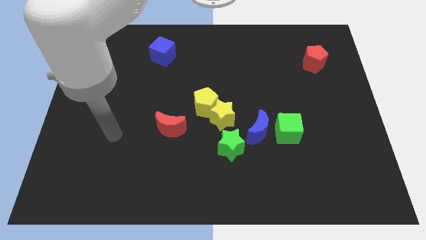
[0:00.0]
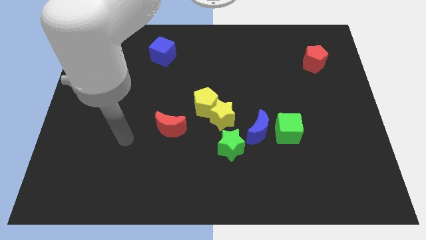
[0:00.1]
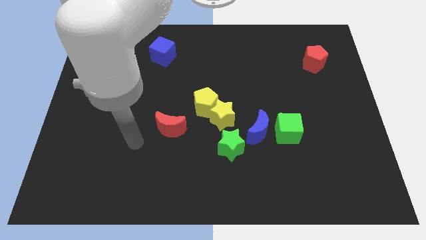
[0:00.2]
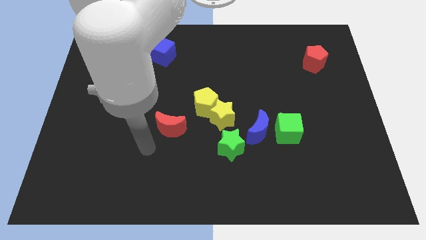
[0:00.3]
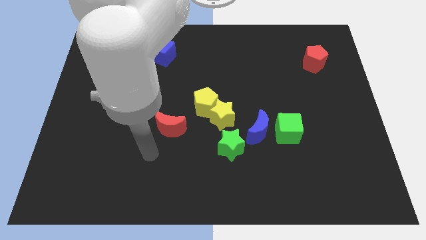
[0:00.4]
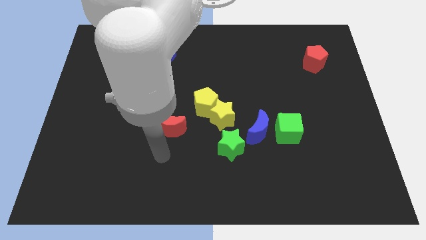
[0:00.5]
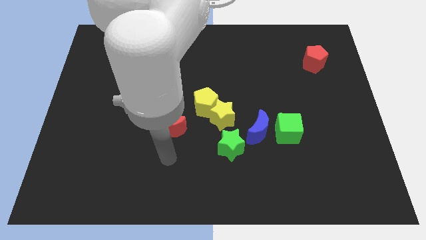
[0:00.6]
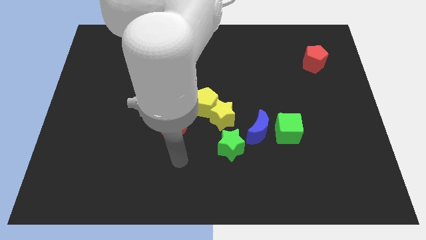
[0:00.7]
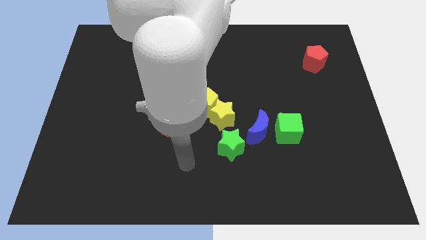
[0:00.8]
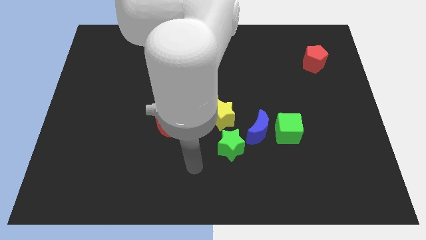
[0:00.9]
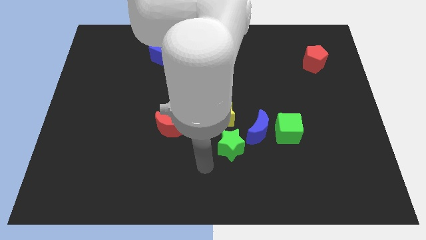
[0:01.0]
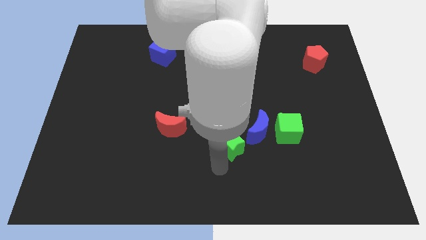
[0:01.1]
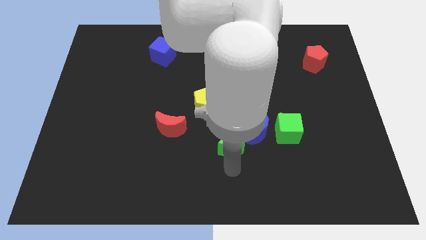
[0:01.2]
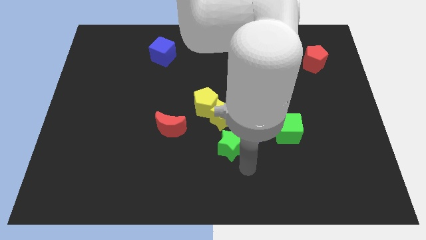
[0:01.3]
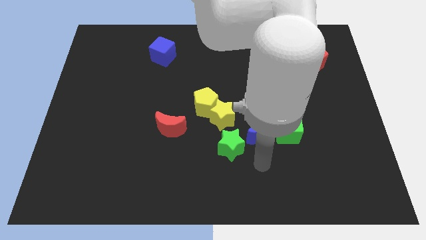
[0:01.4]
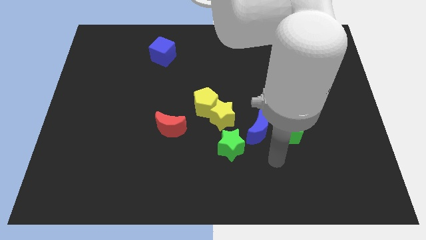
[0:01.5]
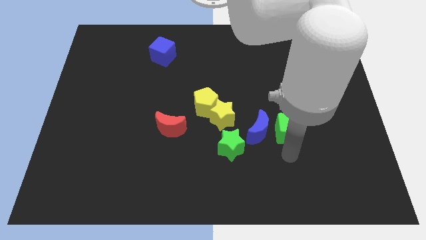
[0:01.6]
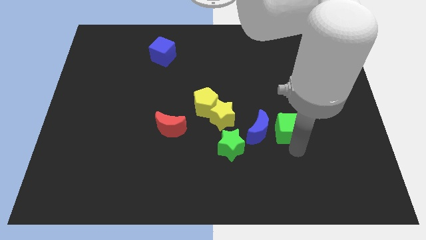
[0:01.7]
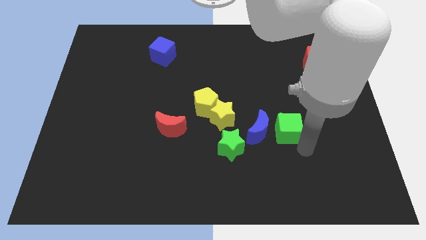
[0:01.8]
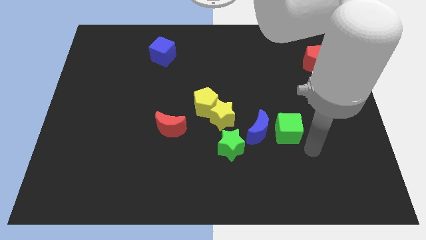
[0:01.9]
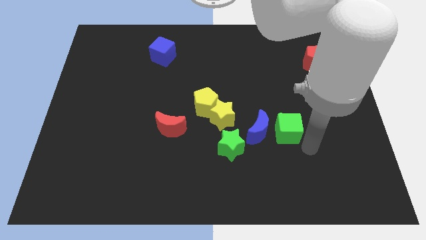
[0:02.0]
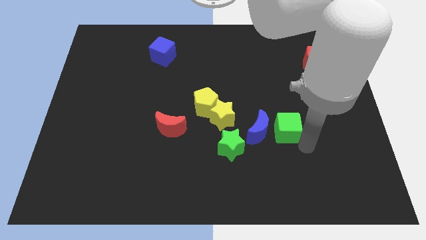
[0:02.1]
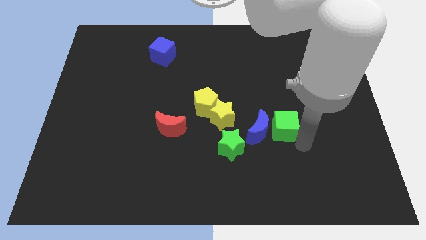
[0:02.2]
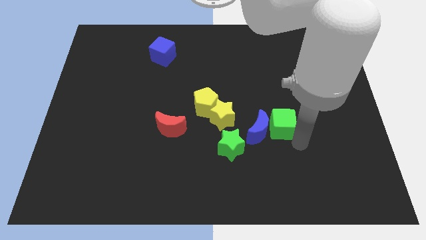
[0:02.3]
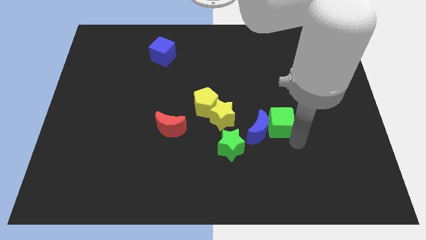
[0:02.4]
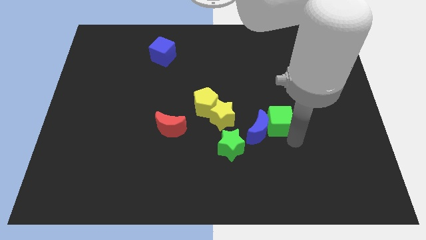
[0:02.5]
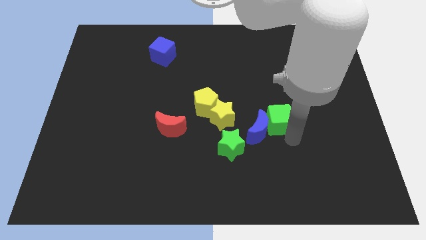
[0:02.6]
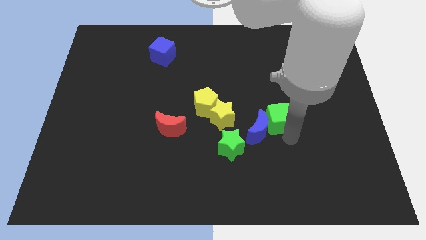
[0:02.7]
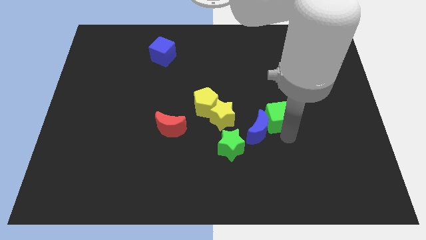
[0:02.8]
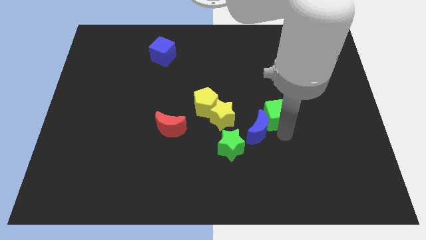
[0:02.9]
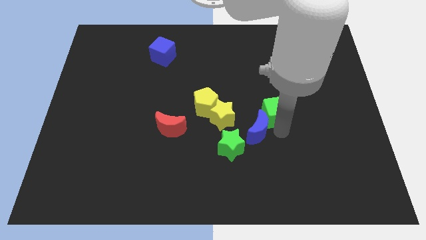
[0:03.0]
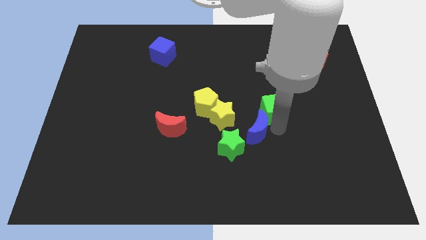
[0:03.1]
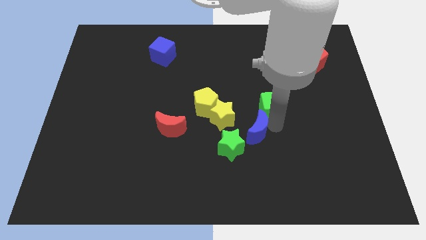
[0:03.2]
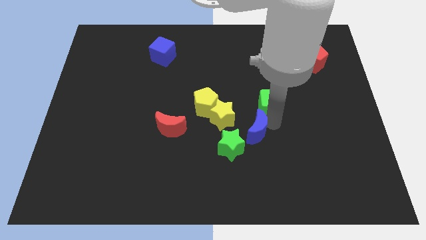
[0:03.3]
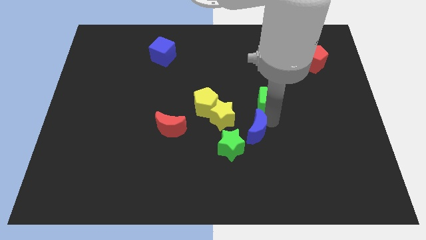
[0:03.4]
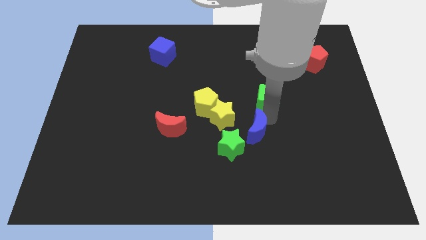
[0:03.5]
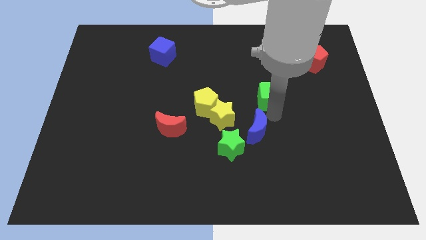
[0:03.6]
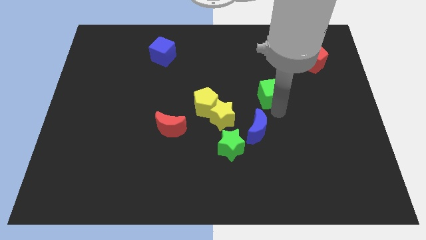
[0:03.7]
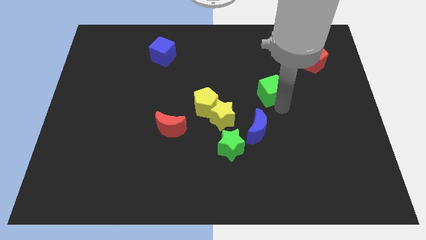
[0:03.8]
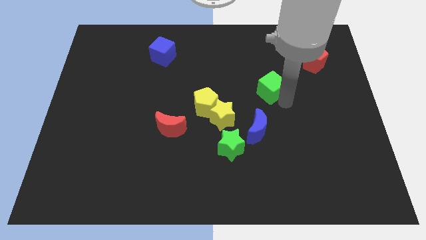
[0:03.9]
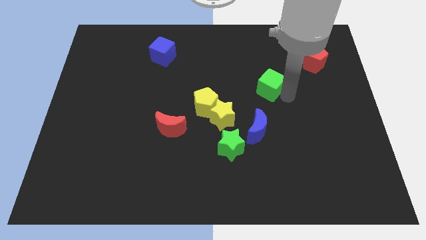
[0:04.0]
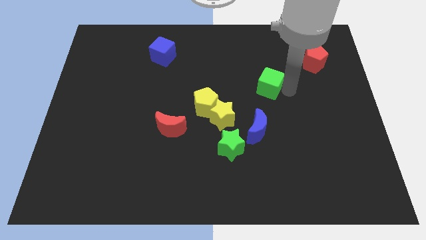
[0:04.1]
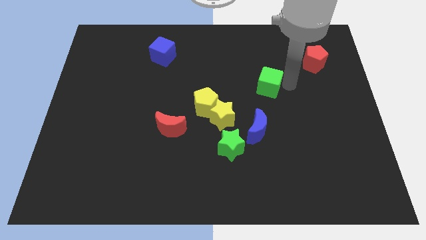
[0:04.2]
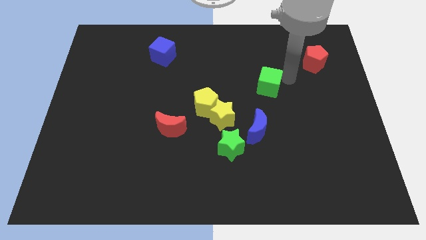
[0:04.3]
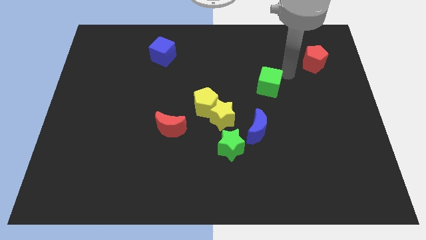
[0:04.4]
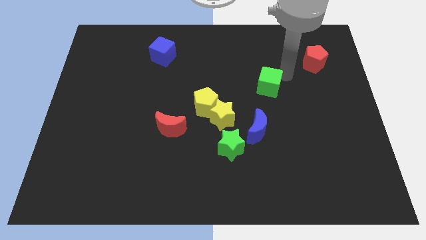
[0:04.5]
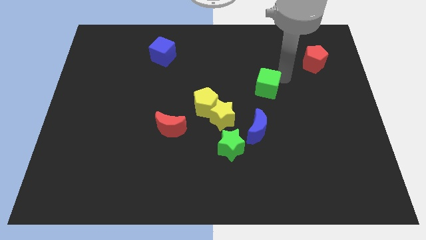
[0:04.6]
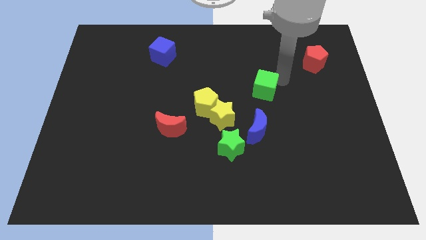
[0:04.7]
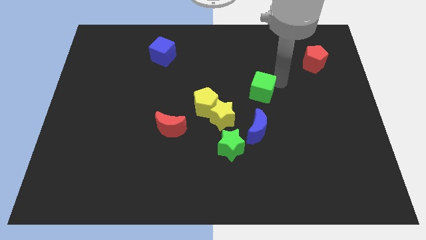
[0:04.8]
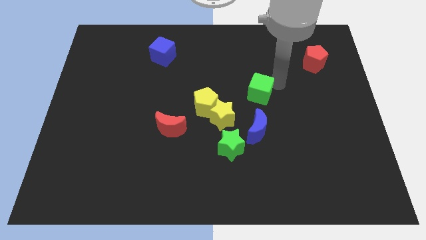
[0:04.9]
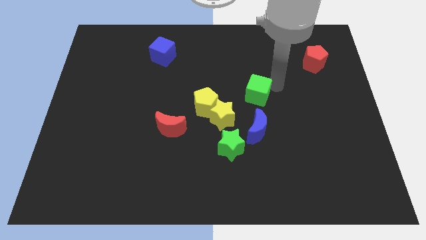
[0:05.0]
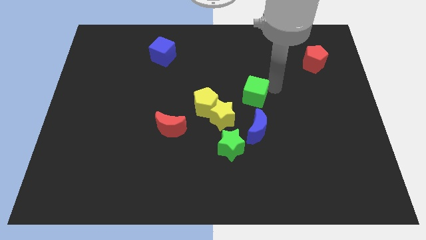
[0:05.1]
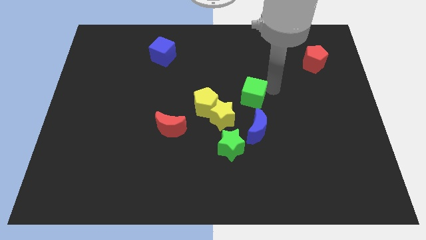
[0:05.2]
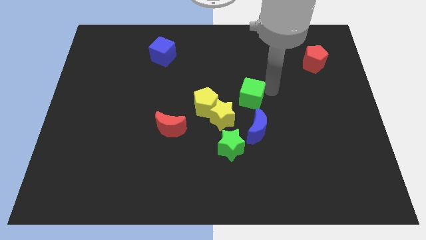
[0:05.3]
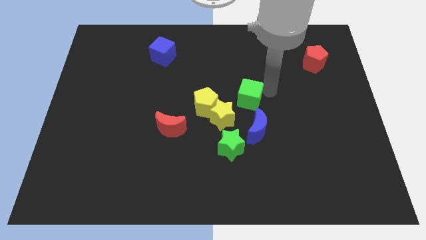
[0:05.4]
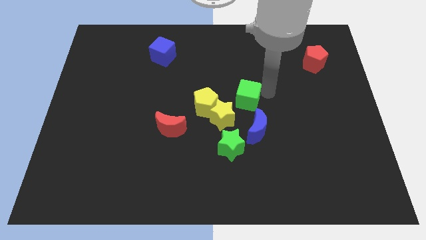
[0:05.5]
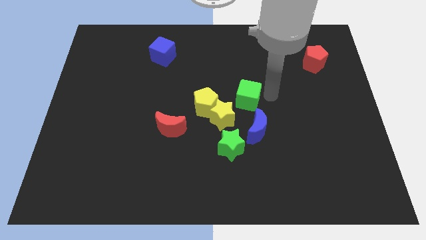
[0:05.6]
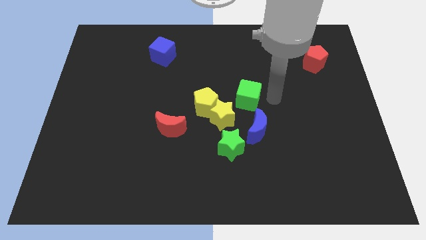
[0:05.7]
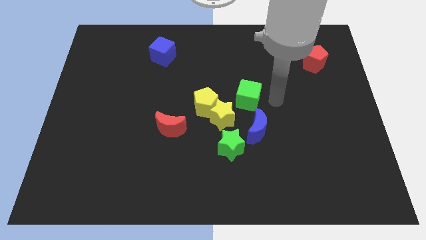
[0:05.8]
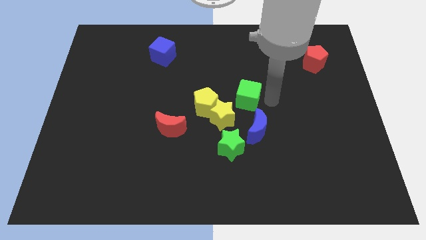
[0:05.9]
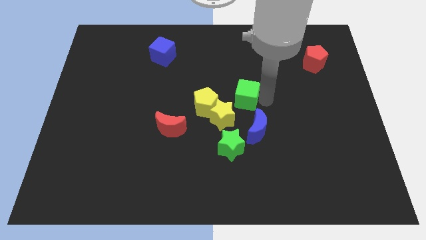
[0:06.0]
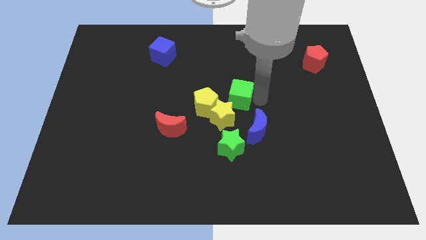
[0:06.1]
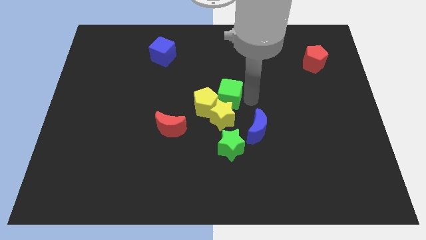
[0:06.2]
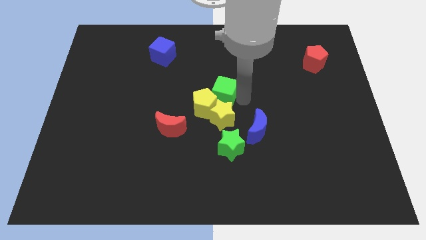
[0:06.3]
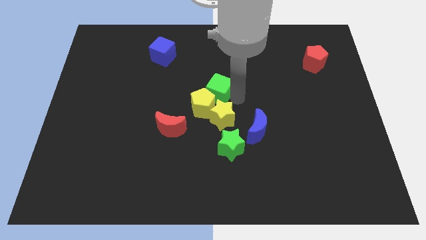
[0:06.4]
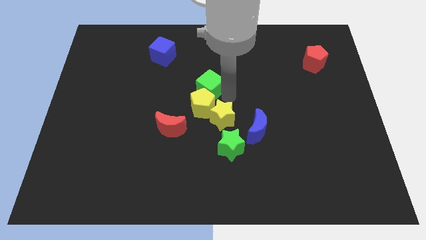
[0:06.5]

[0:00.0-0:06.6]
move the green cube upwards and then left

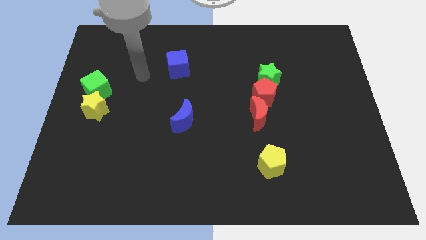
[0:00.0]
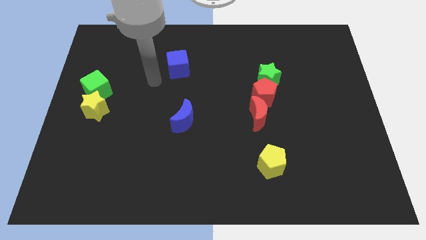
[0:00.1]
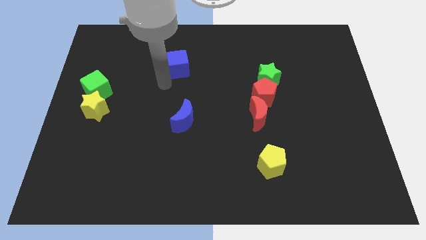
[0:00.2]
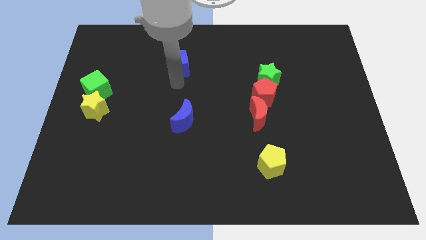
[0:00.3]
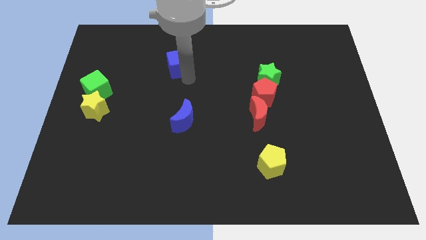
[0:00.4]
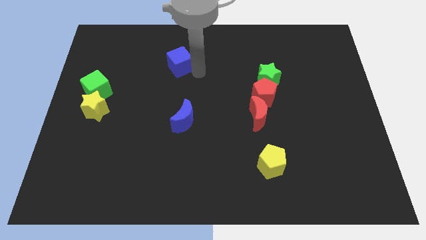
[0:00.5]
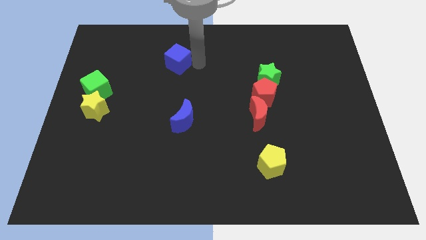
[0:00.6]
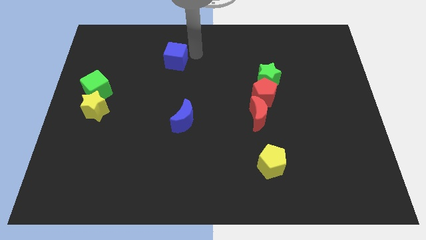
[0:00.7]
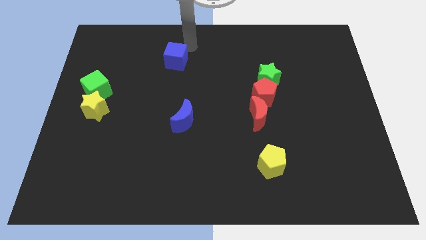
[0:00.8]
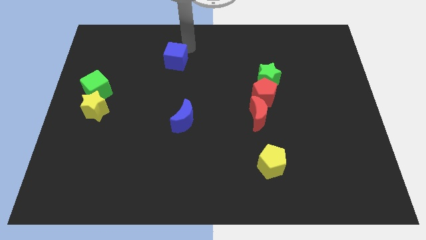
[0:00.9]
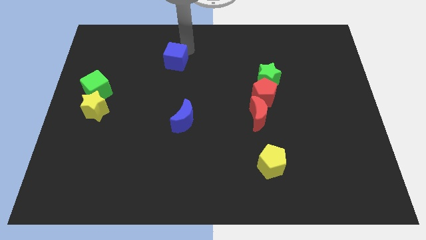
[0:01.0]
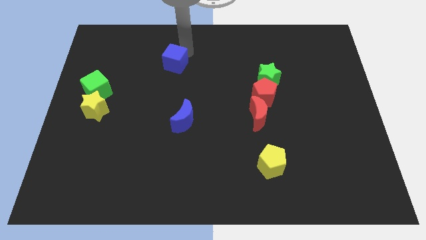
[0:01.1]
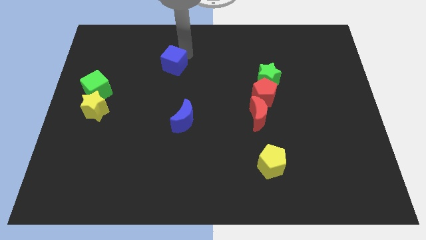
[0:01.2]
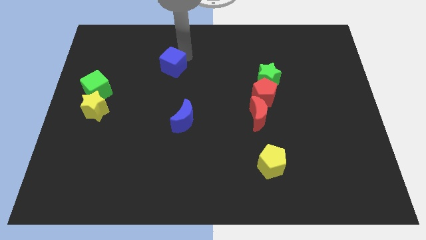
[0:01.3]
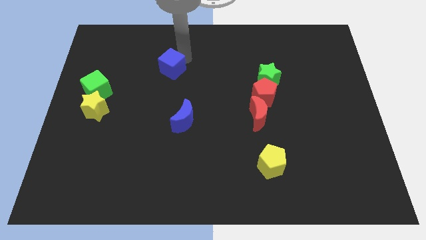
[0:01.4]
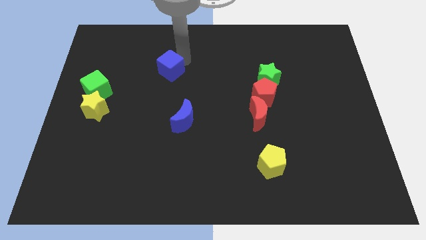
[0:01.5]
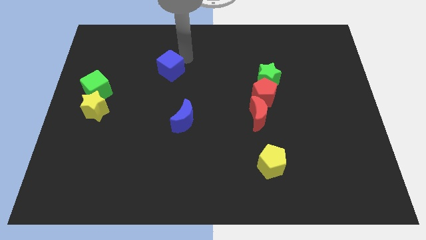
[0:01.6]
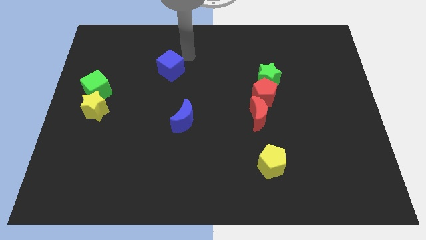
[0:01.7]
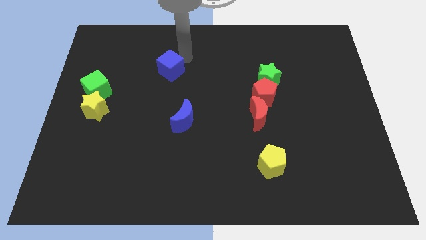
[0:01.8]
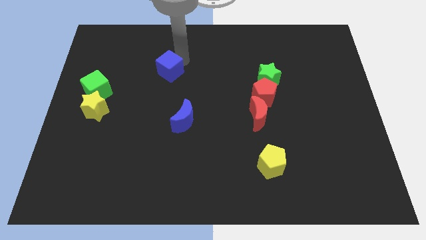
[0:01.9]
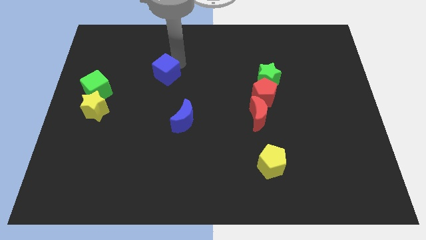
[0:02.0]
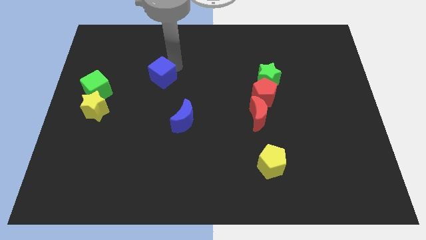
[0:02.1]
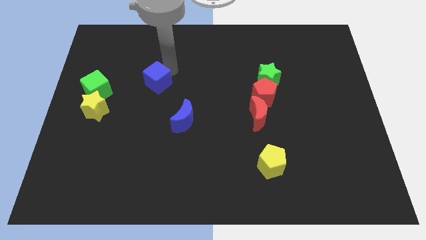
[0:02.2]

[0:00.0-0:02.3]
slide the blue cube diagonally down and to the left a little
